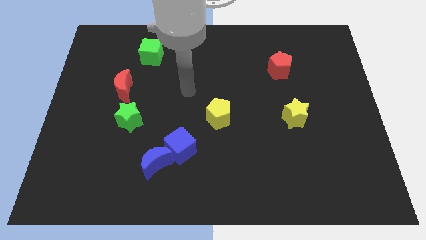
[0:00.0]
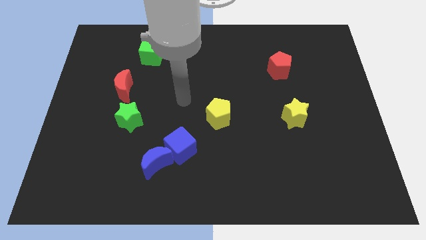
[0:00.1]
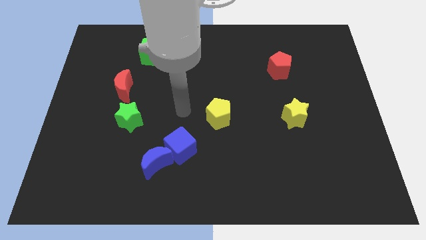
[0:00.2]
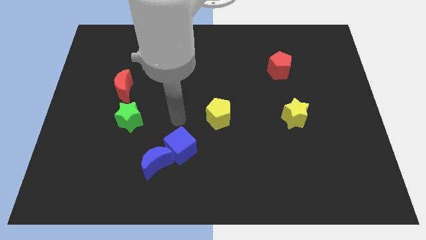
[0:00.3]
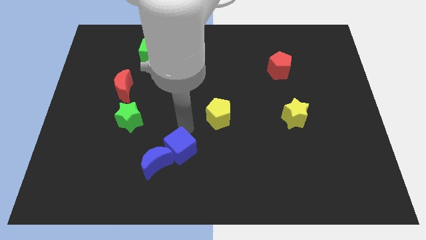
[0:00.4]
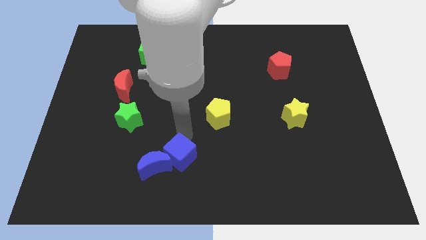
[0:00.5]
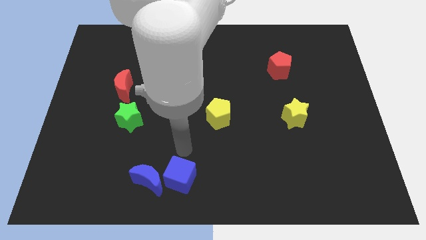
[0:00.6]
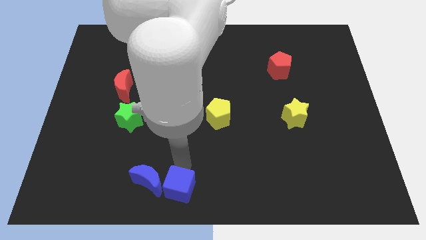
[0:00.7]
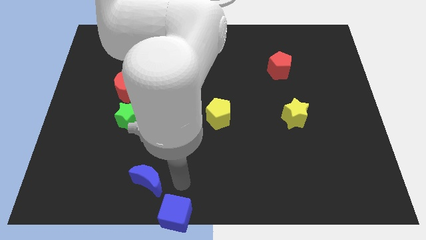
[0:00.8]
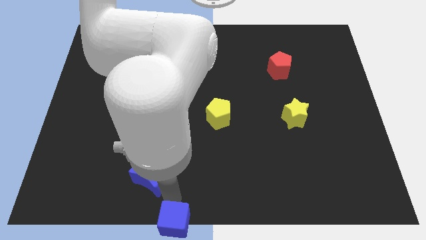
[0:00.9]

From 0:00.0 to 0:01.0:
move the blue moon away from the blue cube

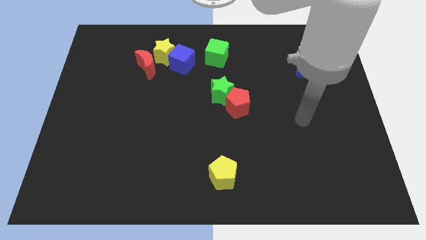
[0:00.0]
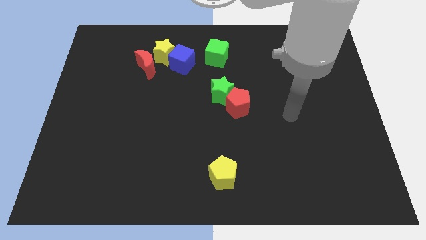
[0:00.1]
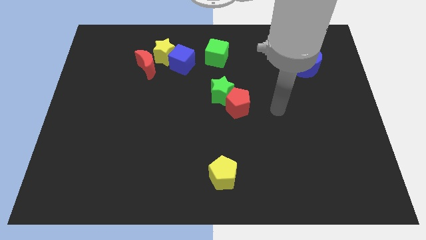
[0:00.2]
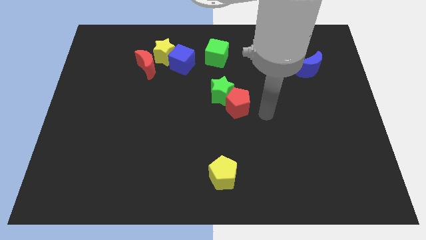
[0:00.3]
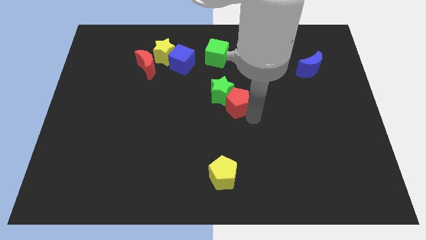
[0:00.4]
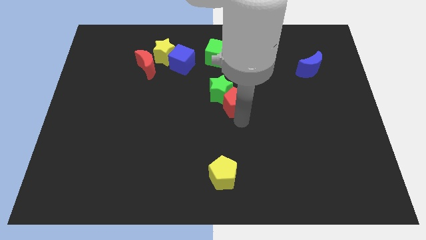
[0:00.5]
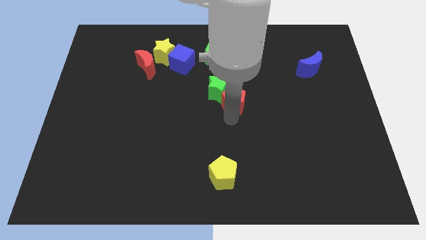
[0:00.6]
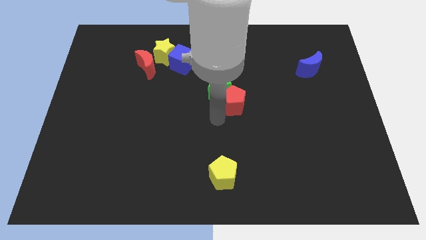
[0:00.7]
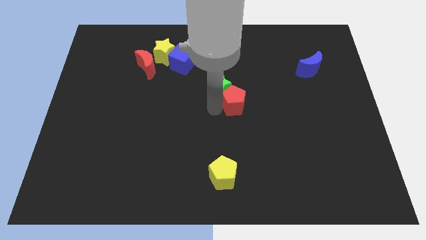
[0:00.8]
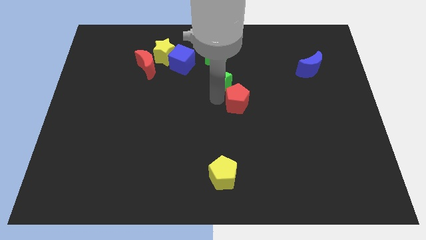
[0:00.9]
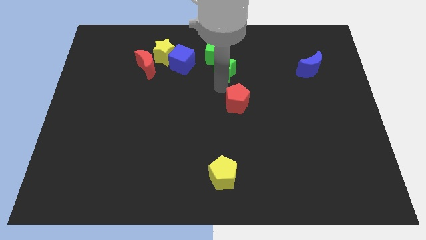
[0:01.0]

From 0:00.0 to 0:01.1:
pull the red pentagon apart from the green star

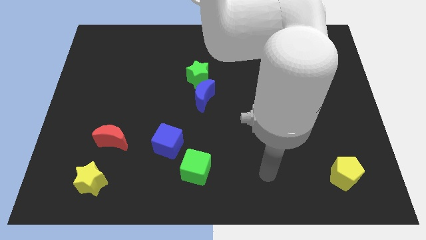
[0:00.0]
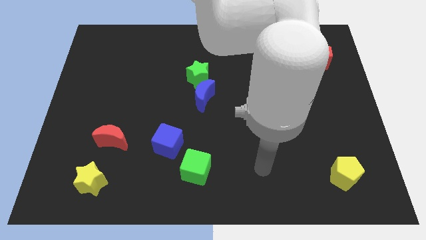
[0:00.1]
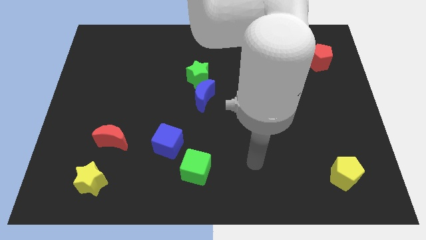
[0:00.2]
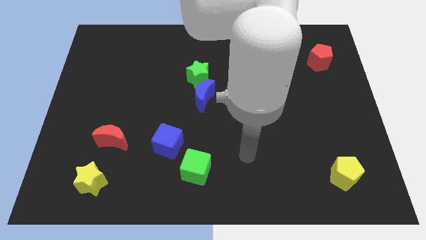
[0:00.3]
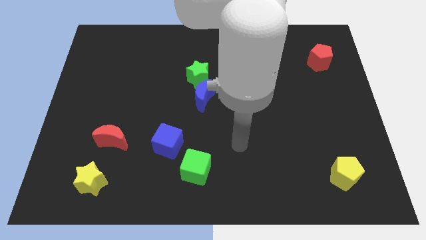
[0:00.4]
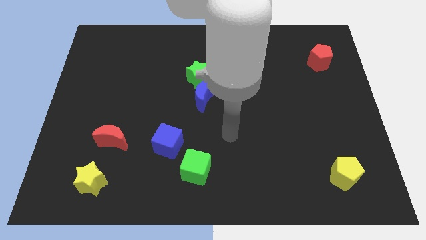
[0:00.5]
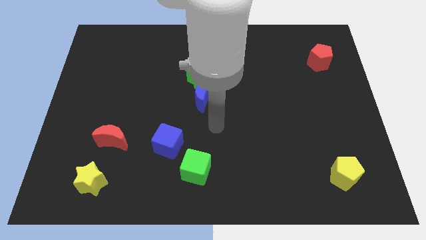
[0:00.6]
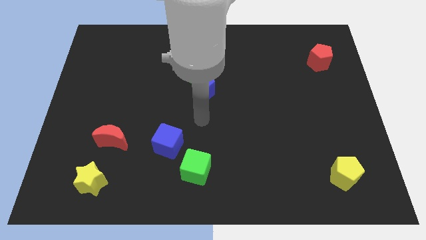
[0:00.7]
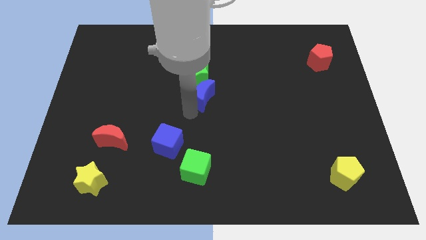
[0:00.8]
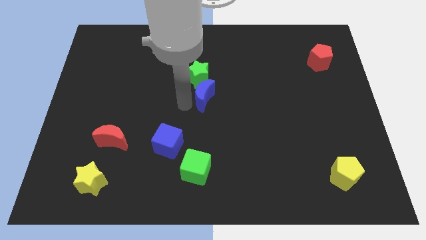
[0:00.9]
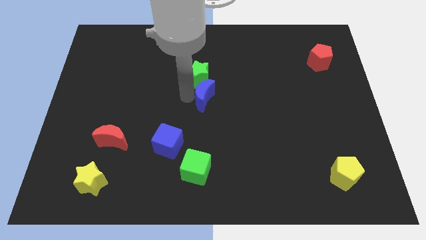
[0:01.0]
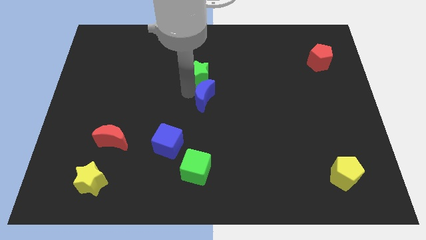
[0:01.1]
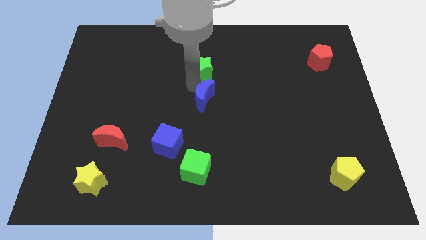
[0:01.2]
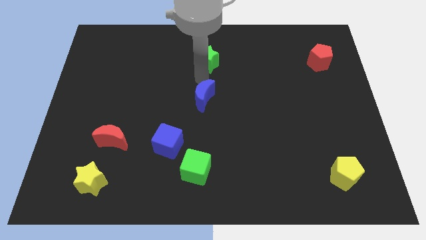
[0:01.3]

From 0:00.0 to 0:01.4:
separate the blue moon from the green star

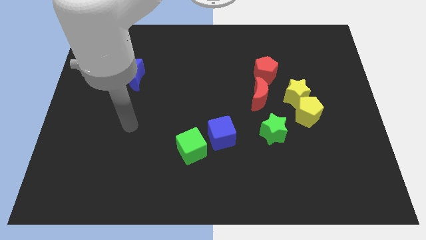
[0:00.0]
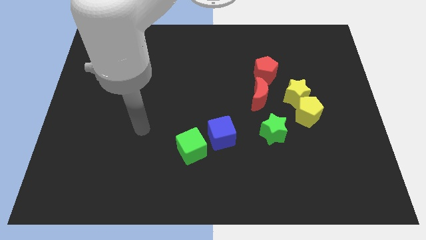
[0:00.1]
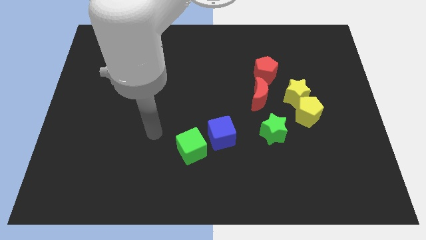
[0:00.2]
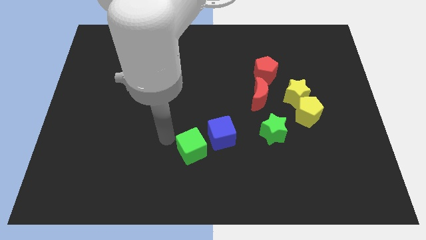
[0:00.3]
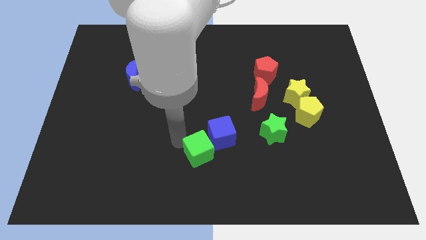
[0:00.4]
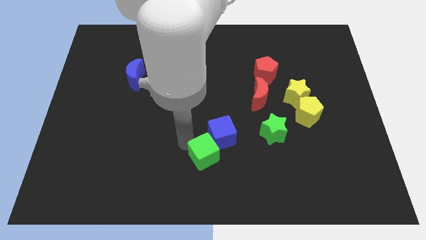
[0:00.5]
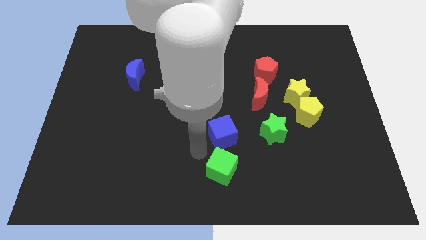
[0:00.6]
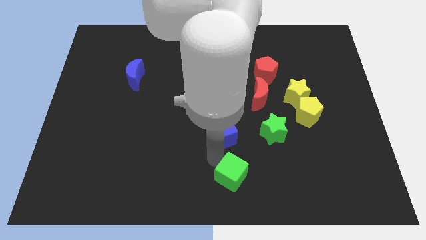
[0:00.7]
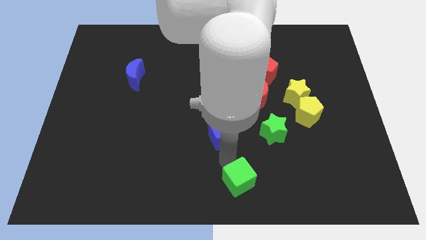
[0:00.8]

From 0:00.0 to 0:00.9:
separate the blue cube from the green cube

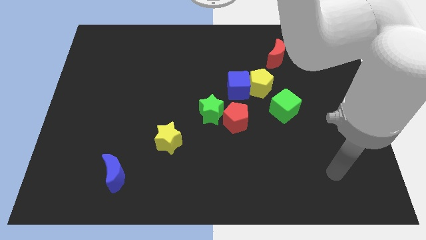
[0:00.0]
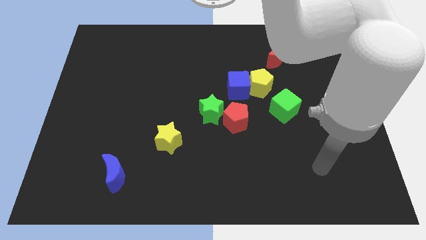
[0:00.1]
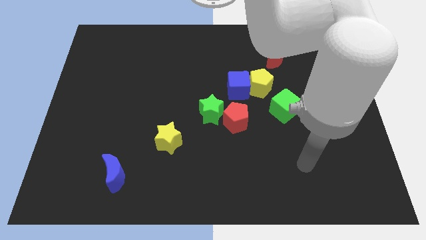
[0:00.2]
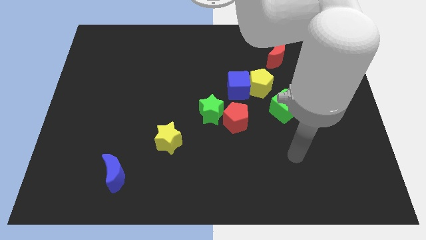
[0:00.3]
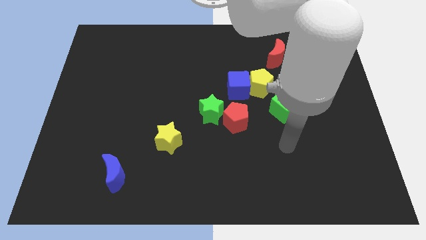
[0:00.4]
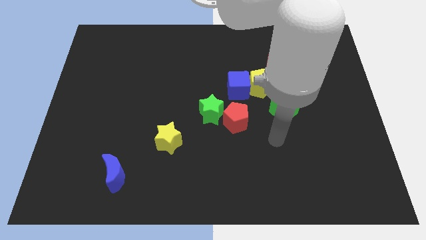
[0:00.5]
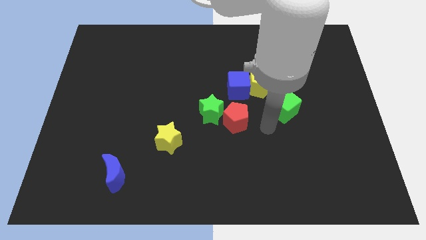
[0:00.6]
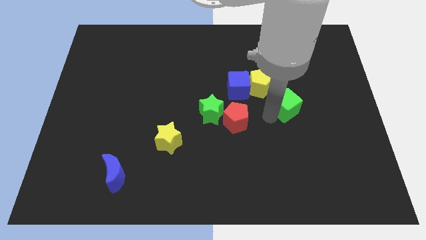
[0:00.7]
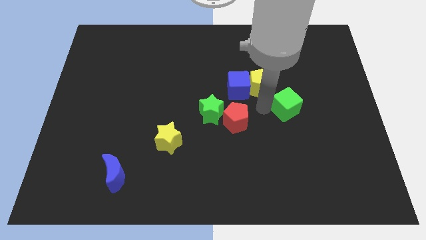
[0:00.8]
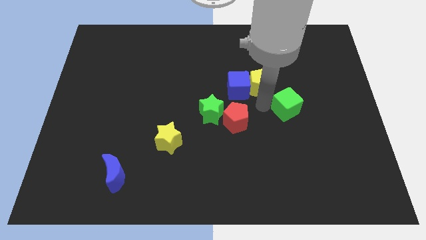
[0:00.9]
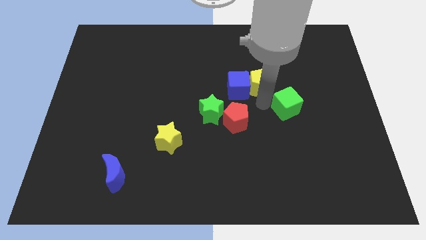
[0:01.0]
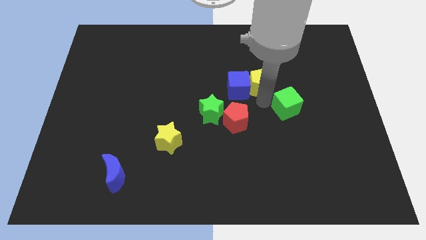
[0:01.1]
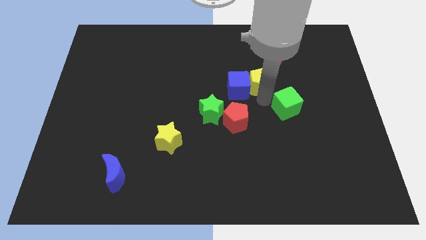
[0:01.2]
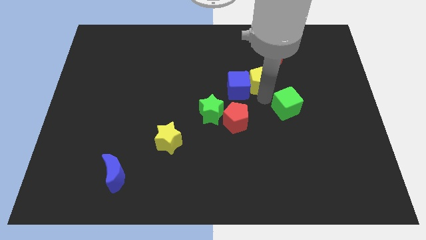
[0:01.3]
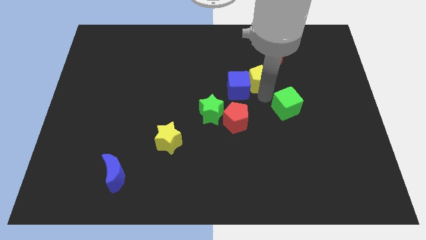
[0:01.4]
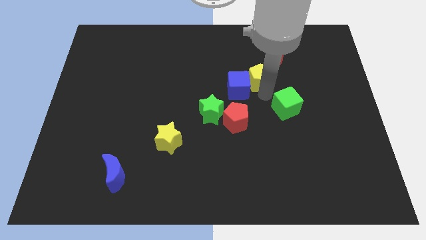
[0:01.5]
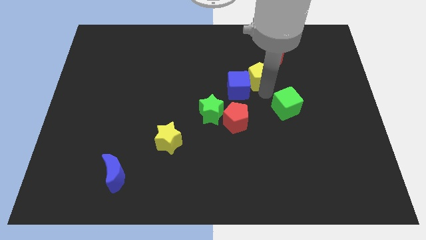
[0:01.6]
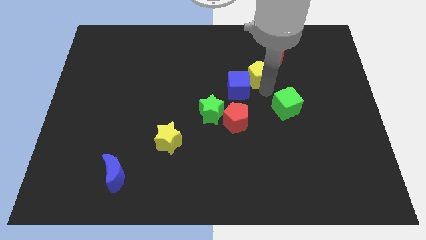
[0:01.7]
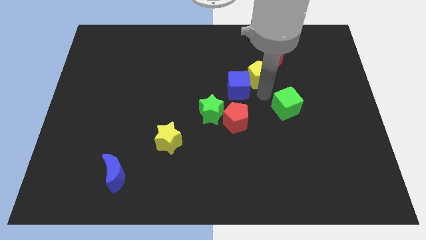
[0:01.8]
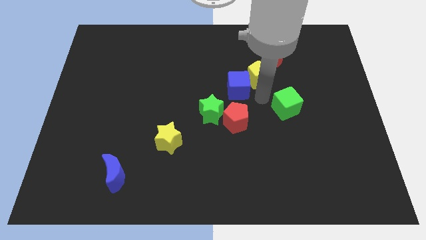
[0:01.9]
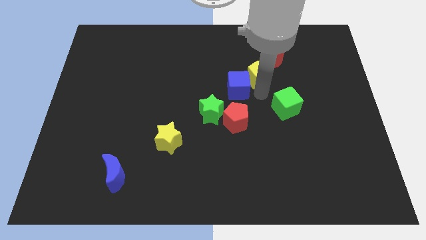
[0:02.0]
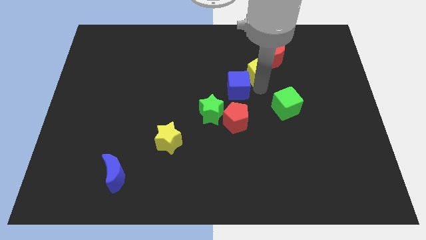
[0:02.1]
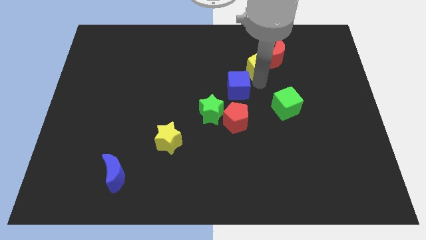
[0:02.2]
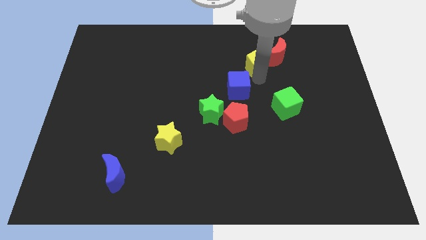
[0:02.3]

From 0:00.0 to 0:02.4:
separate the yellow pentagon from the blue cube and green cube

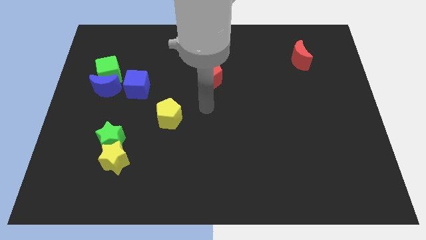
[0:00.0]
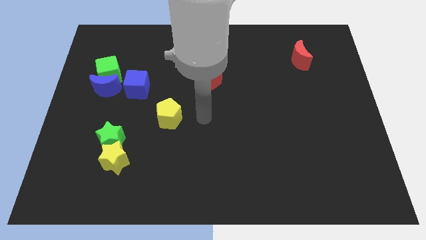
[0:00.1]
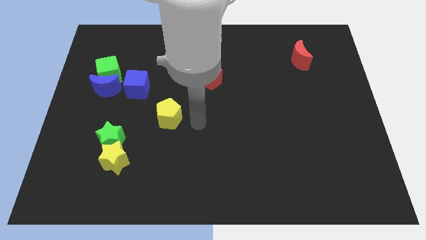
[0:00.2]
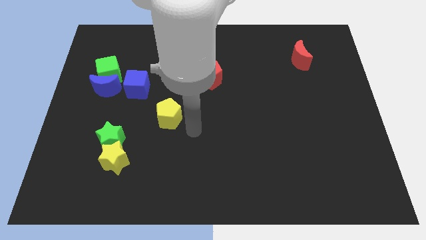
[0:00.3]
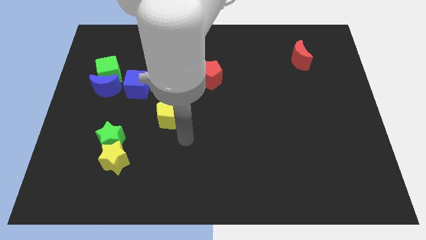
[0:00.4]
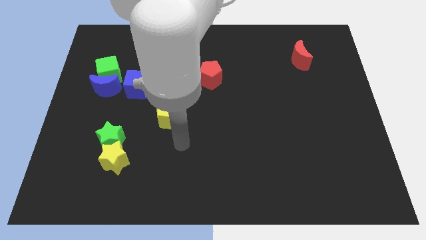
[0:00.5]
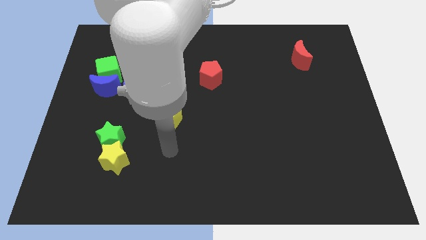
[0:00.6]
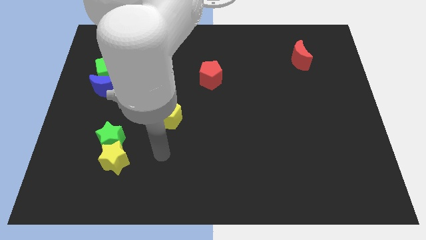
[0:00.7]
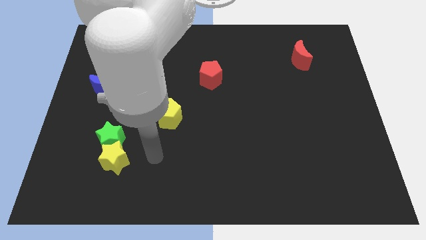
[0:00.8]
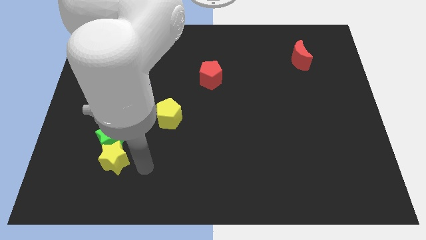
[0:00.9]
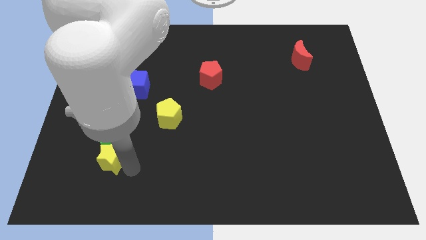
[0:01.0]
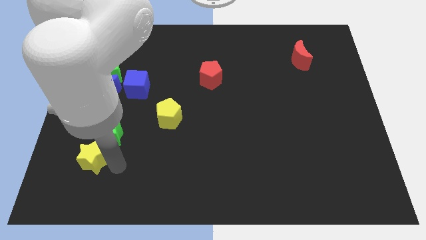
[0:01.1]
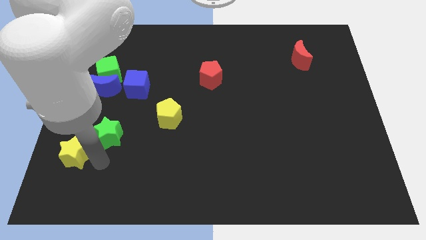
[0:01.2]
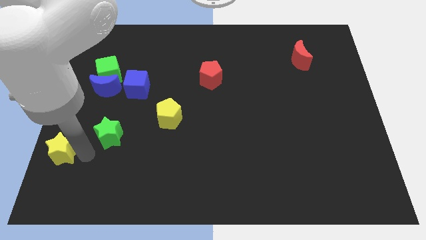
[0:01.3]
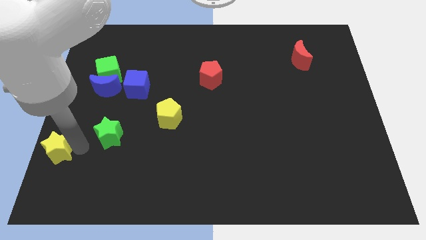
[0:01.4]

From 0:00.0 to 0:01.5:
pull the green star apart from the yellow star

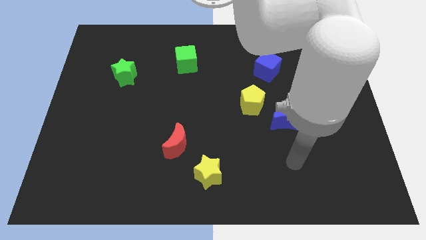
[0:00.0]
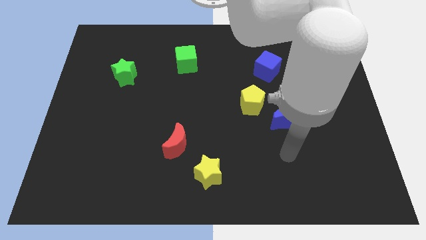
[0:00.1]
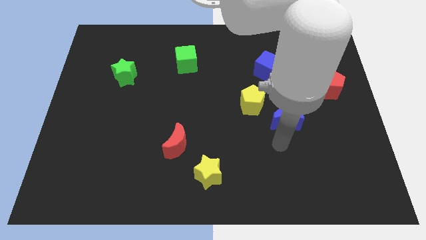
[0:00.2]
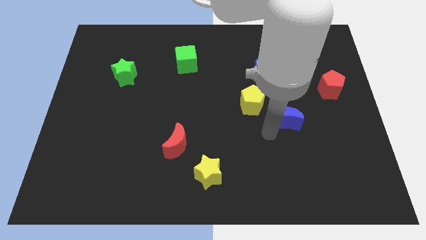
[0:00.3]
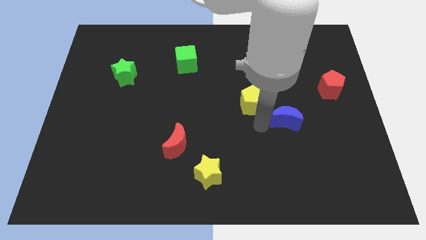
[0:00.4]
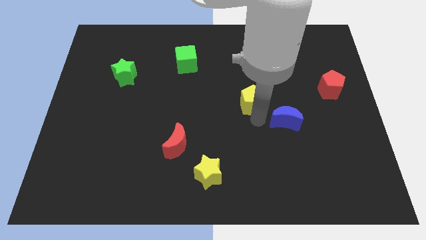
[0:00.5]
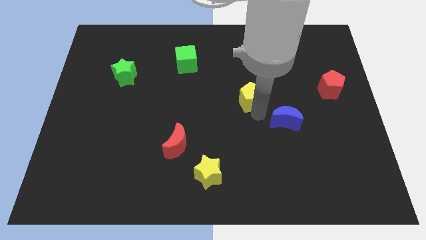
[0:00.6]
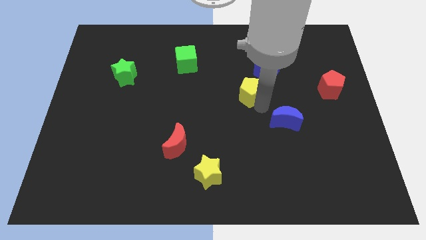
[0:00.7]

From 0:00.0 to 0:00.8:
move the blue moon away from the yellow pentagon
